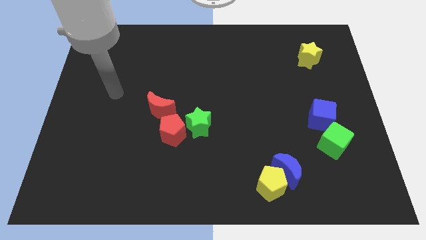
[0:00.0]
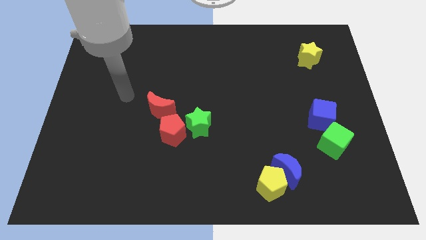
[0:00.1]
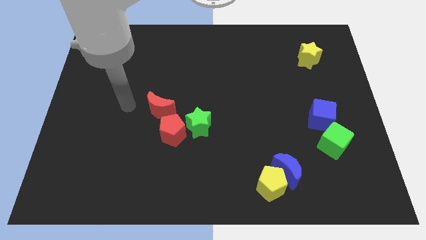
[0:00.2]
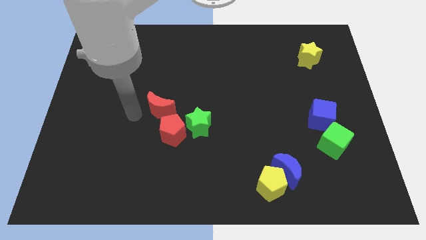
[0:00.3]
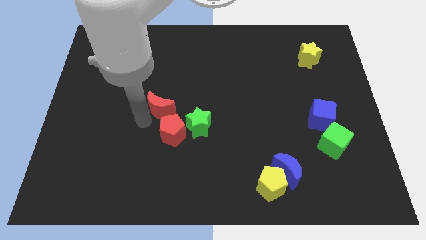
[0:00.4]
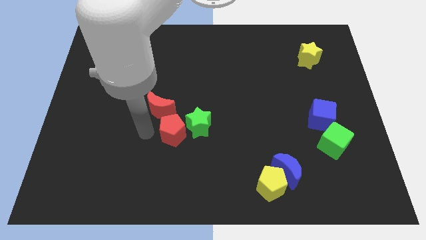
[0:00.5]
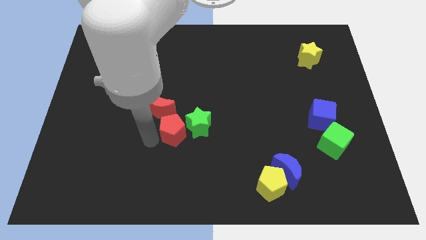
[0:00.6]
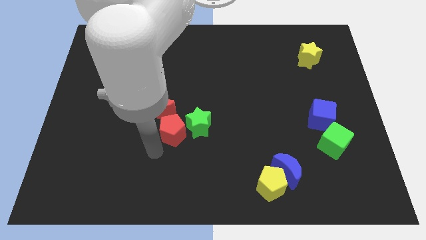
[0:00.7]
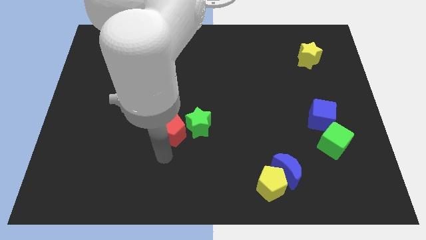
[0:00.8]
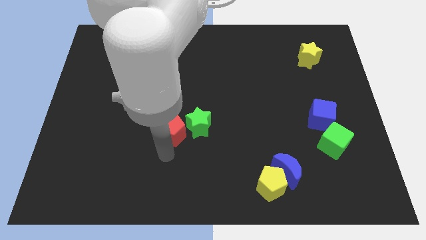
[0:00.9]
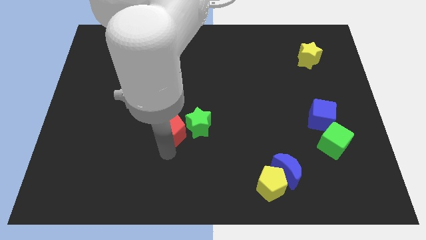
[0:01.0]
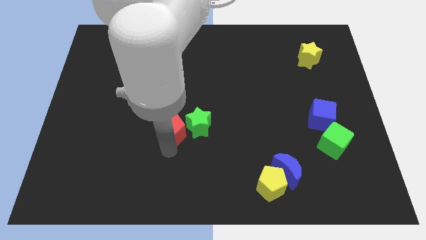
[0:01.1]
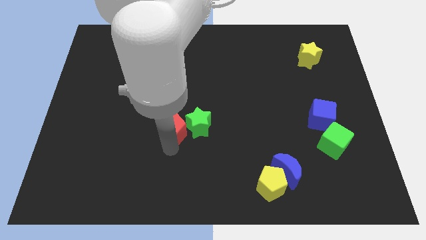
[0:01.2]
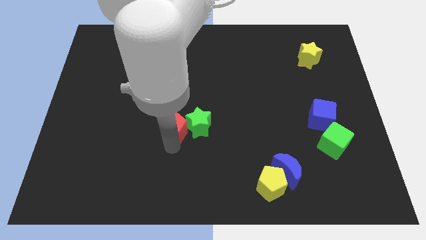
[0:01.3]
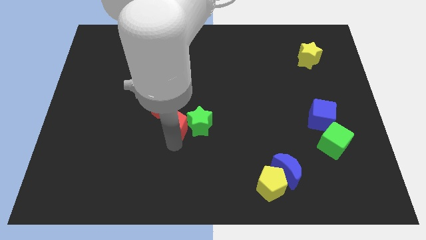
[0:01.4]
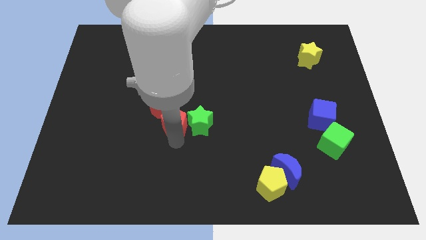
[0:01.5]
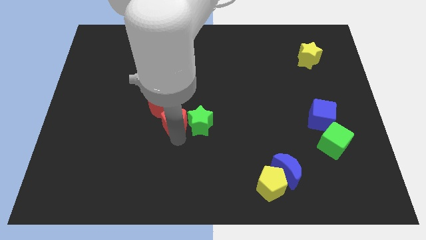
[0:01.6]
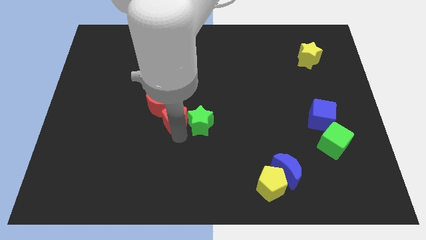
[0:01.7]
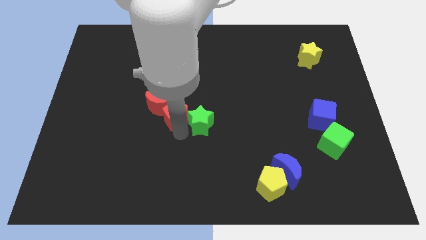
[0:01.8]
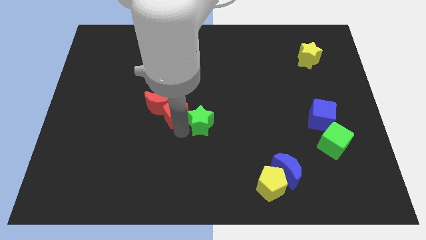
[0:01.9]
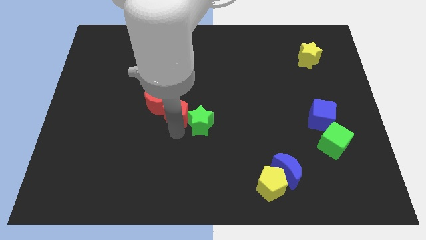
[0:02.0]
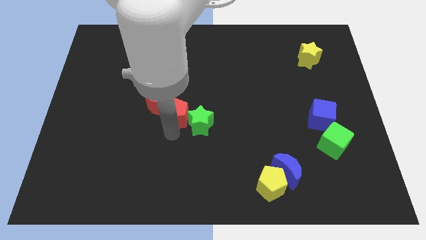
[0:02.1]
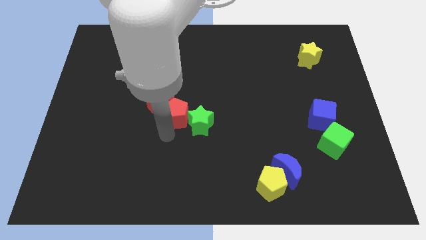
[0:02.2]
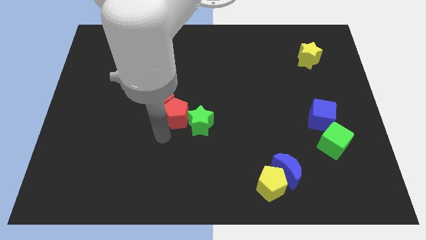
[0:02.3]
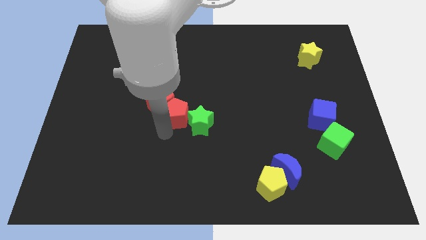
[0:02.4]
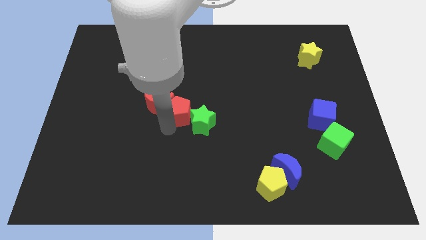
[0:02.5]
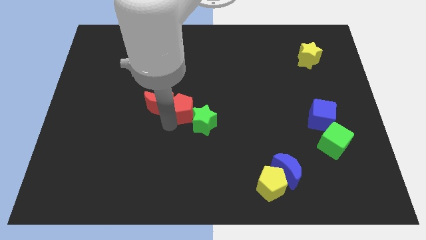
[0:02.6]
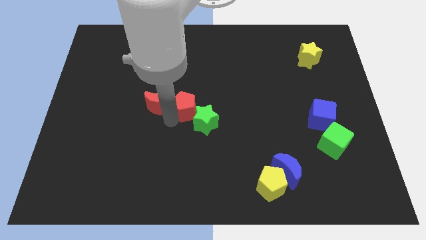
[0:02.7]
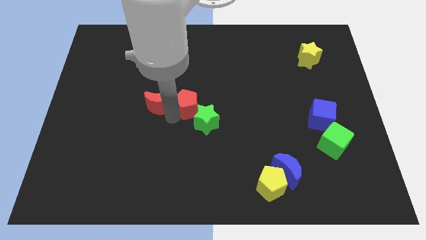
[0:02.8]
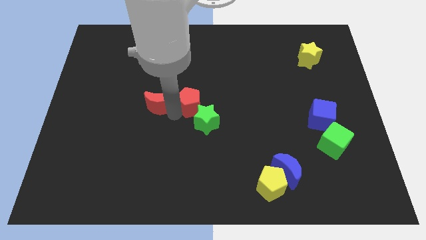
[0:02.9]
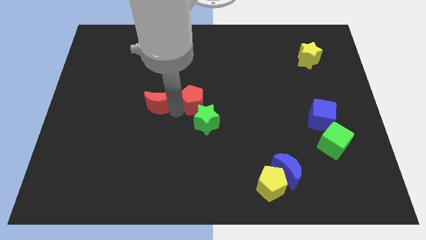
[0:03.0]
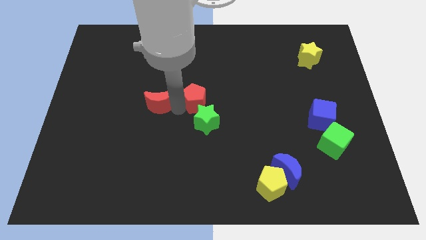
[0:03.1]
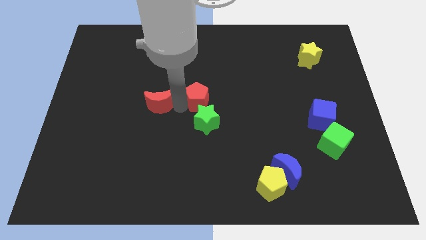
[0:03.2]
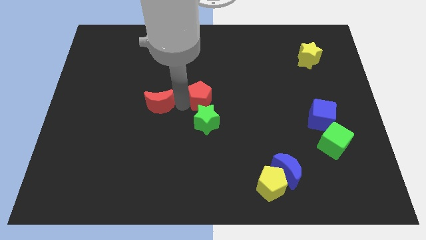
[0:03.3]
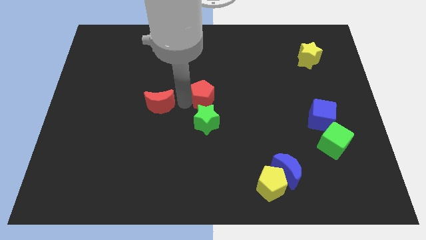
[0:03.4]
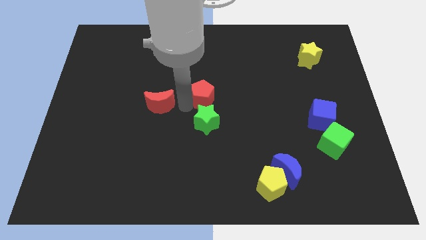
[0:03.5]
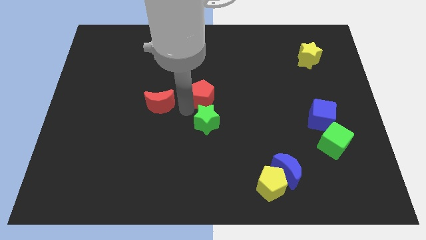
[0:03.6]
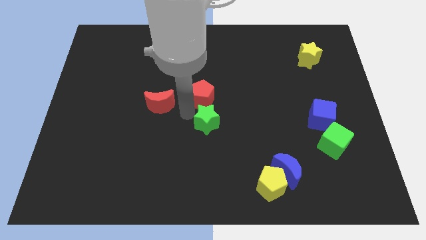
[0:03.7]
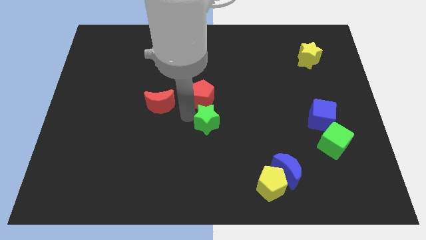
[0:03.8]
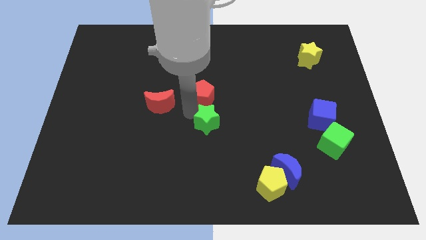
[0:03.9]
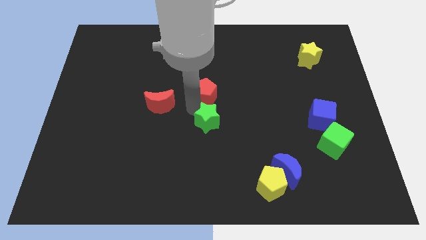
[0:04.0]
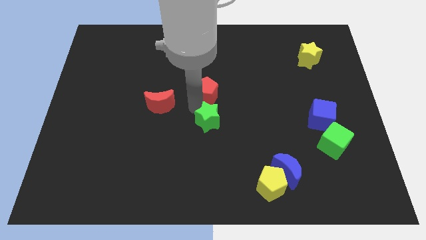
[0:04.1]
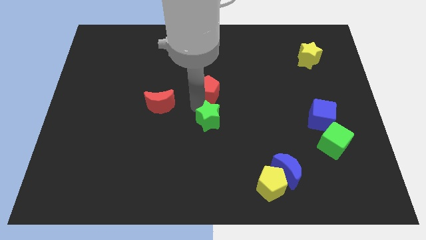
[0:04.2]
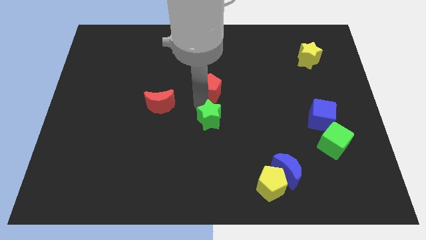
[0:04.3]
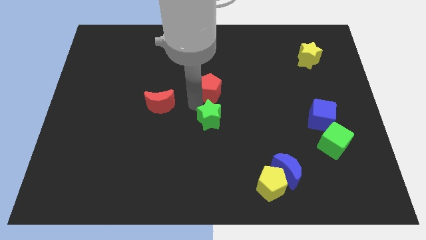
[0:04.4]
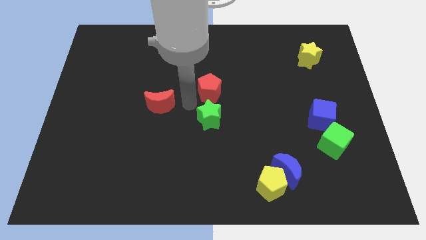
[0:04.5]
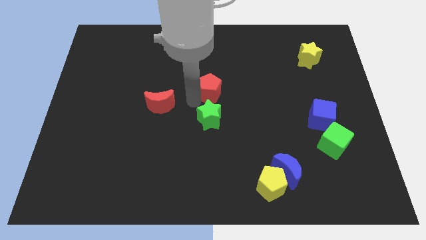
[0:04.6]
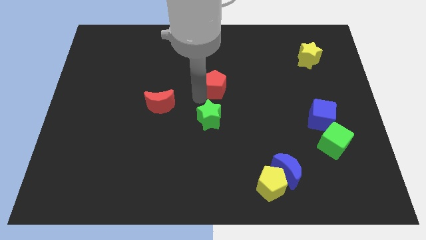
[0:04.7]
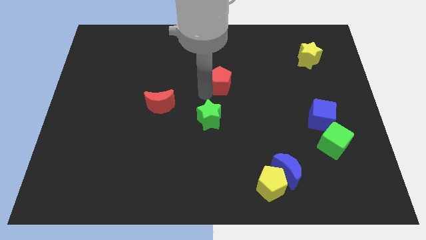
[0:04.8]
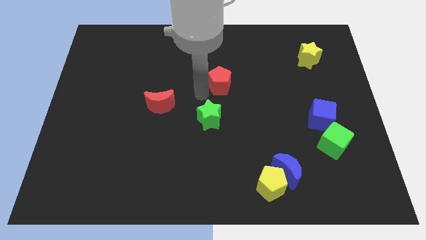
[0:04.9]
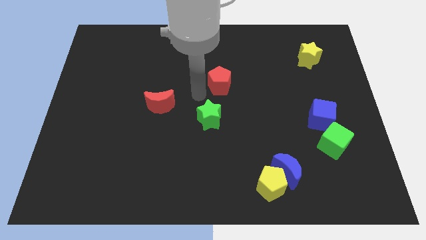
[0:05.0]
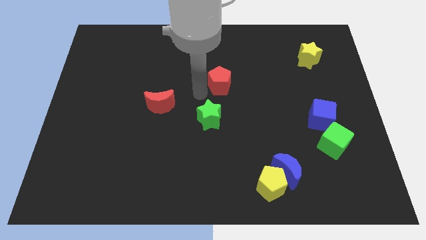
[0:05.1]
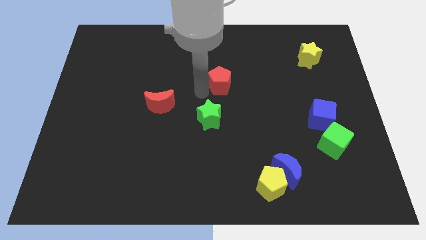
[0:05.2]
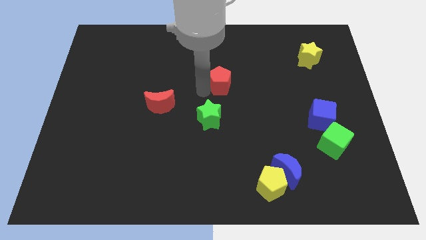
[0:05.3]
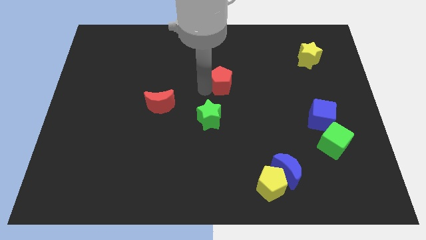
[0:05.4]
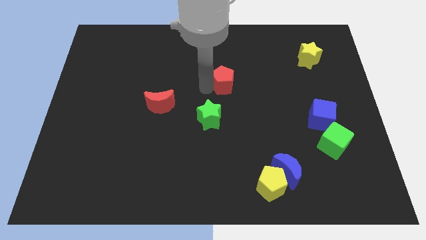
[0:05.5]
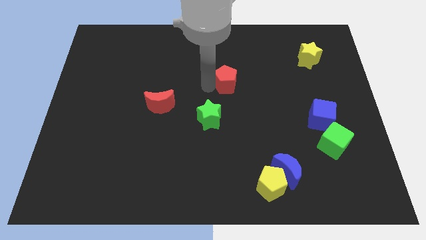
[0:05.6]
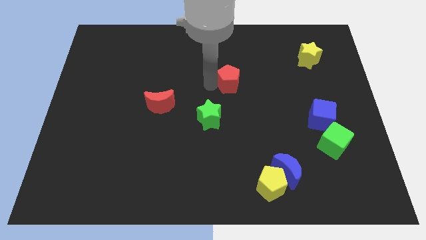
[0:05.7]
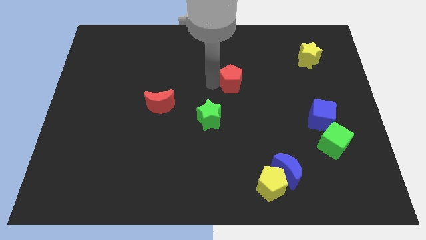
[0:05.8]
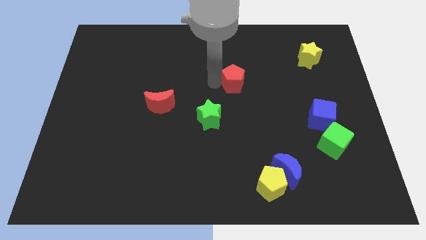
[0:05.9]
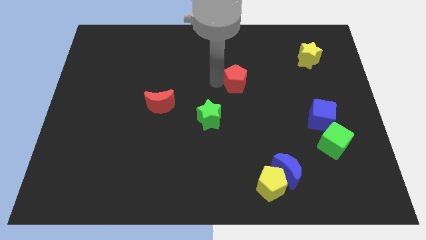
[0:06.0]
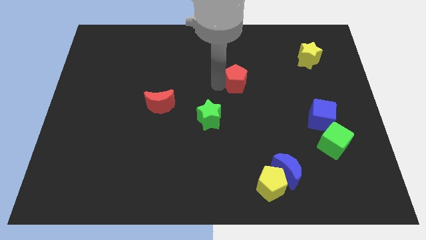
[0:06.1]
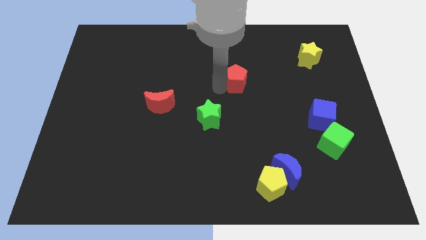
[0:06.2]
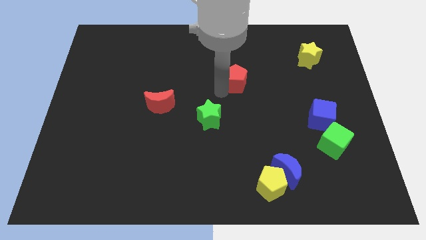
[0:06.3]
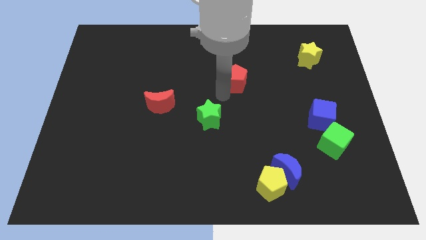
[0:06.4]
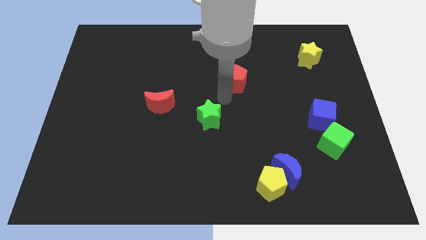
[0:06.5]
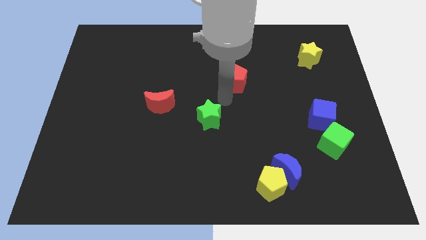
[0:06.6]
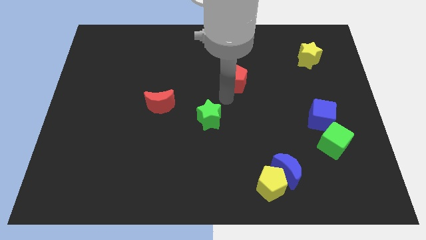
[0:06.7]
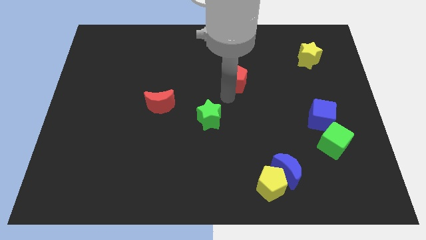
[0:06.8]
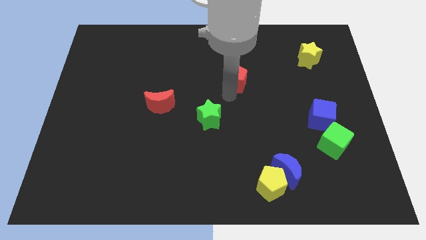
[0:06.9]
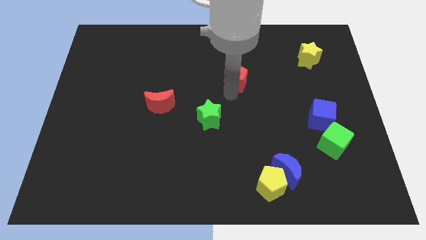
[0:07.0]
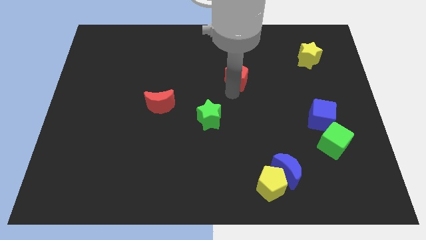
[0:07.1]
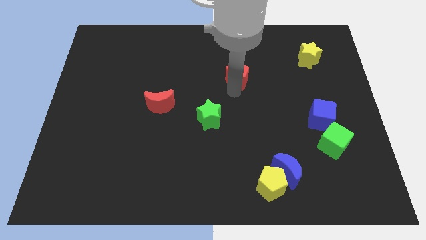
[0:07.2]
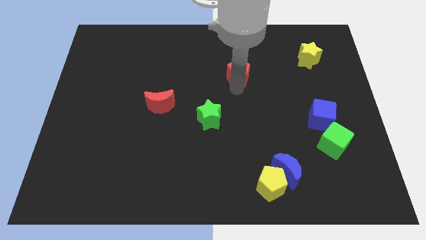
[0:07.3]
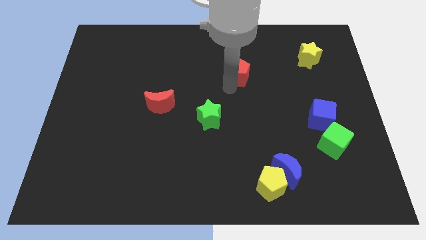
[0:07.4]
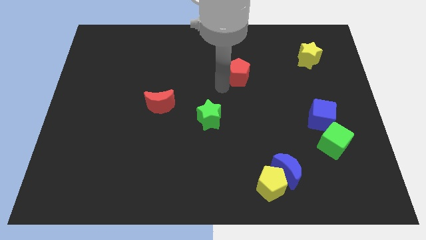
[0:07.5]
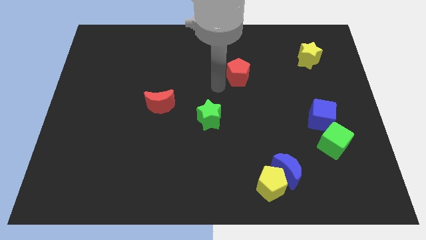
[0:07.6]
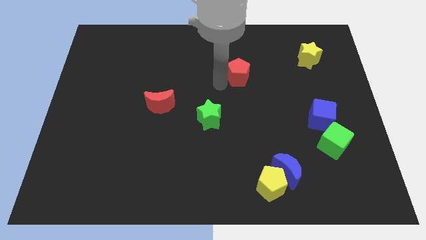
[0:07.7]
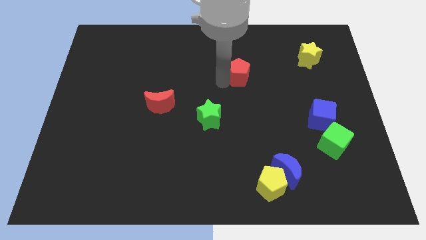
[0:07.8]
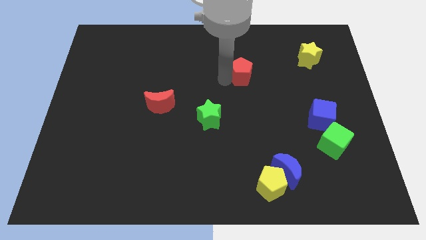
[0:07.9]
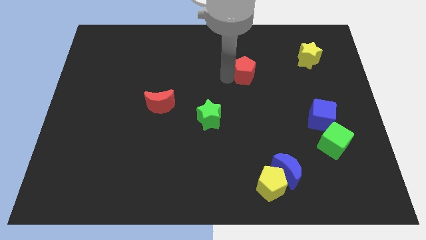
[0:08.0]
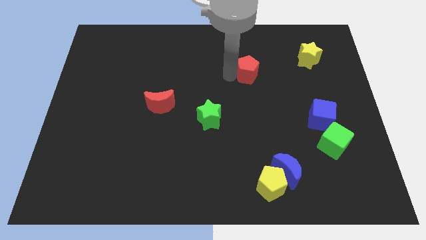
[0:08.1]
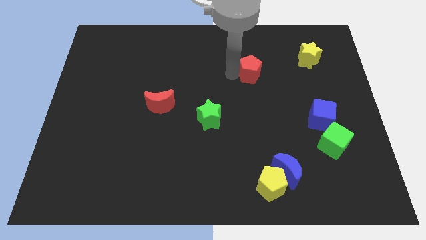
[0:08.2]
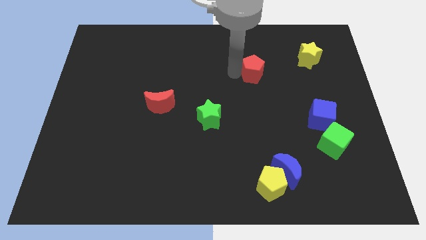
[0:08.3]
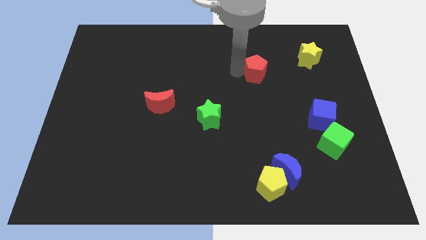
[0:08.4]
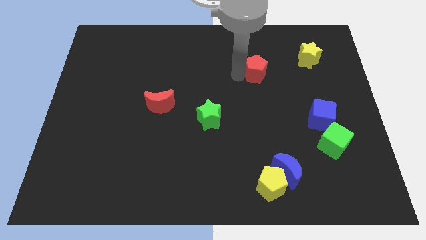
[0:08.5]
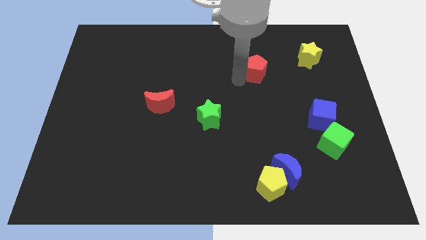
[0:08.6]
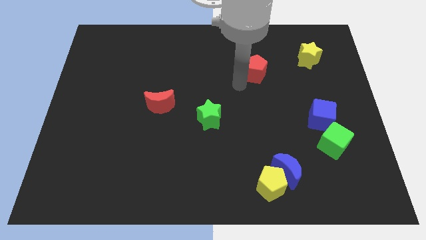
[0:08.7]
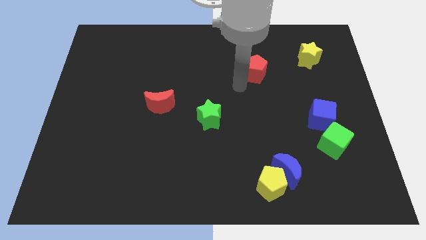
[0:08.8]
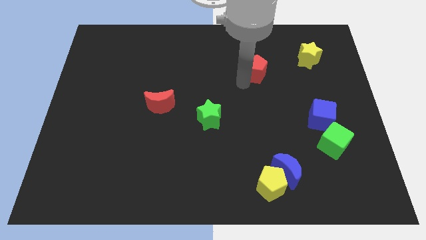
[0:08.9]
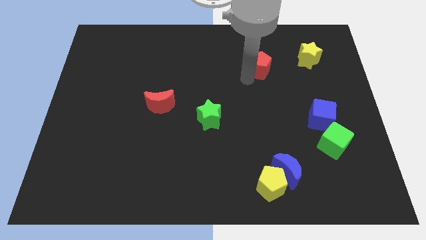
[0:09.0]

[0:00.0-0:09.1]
slide the red pentagon to the left side of the yellow star
